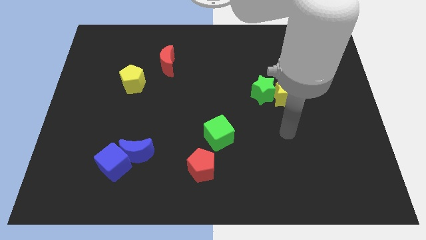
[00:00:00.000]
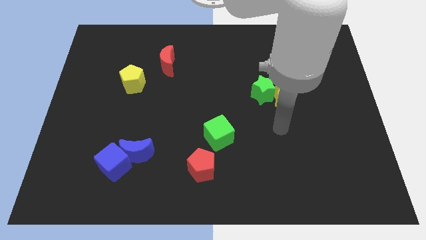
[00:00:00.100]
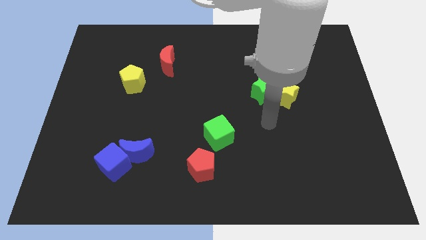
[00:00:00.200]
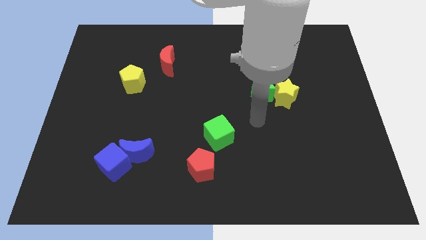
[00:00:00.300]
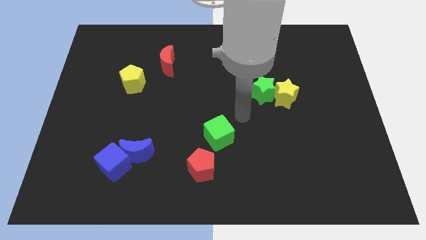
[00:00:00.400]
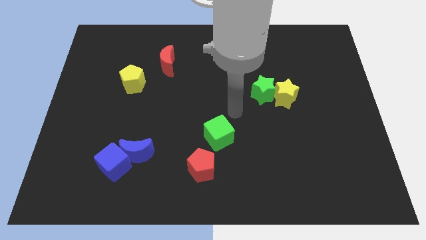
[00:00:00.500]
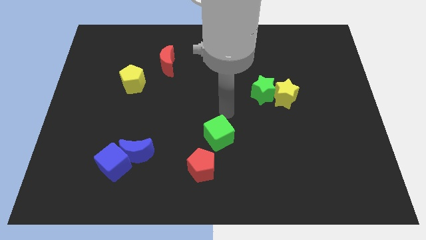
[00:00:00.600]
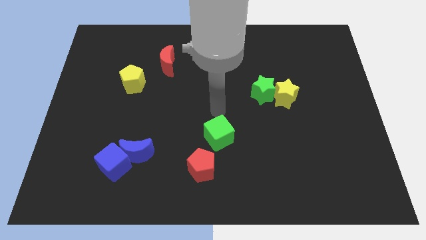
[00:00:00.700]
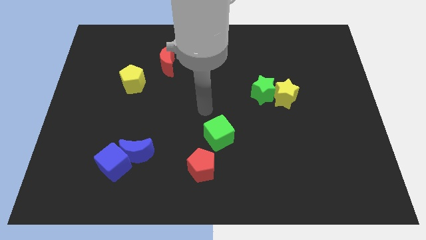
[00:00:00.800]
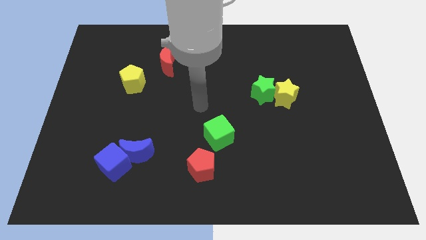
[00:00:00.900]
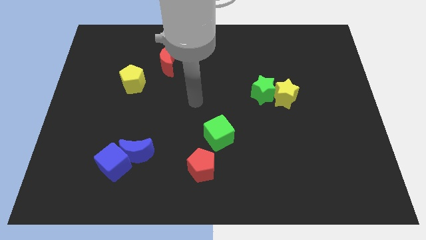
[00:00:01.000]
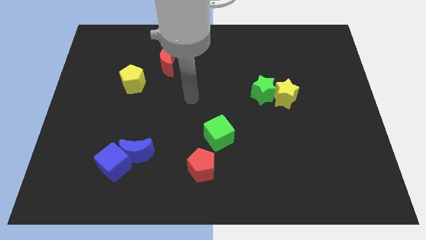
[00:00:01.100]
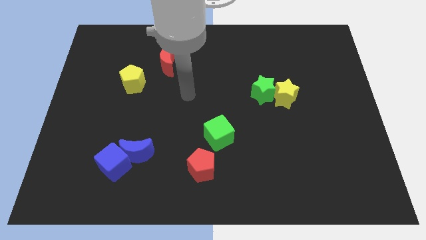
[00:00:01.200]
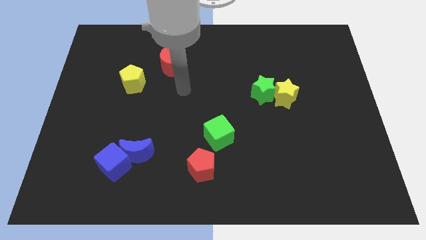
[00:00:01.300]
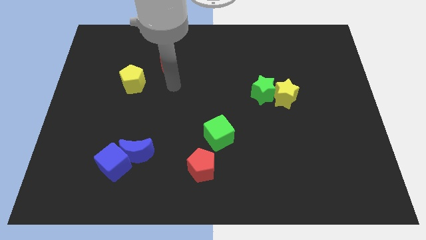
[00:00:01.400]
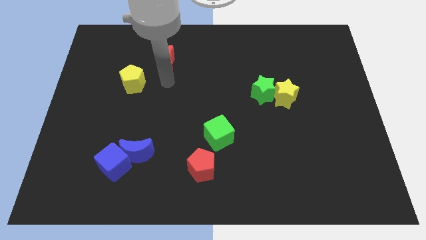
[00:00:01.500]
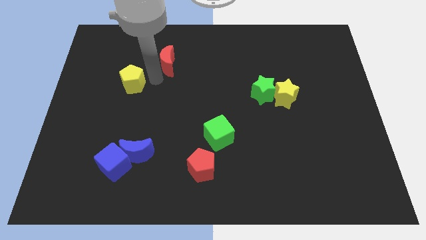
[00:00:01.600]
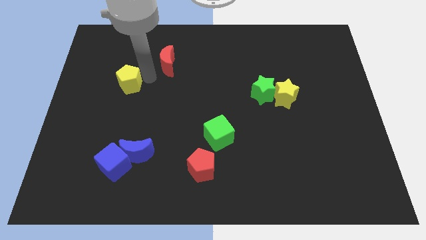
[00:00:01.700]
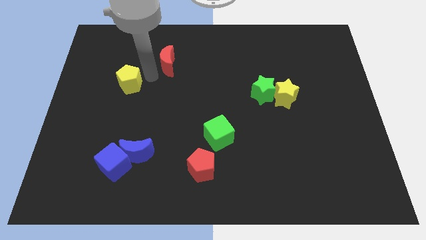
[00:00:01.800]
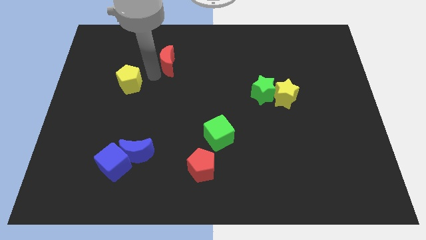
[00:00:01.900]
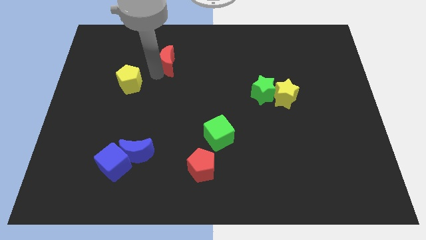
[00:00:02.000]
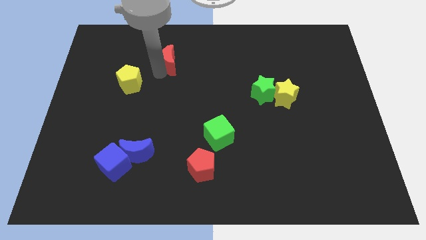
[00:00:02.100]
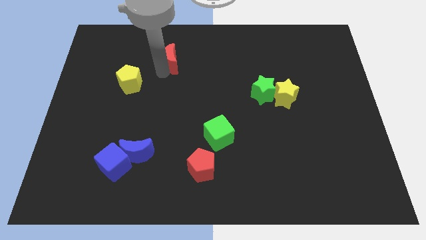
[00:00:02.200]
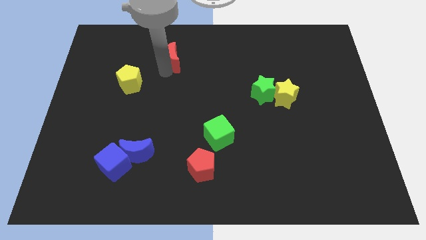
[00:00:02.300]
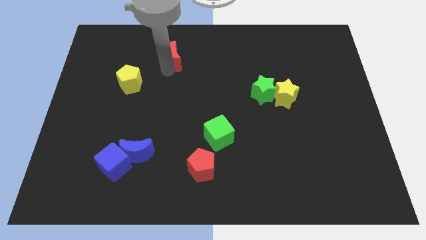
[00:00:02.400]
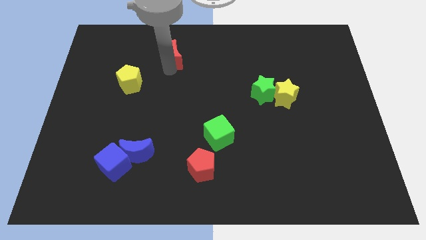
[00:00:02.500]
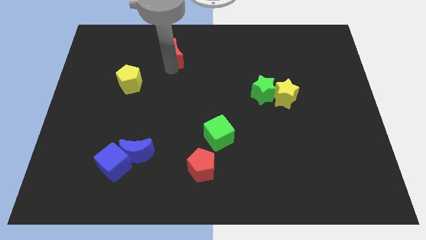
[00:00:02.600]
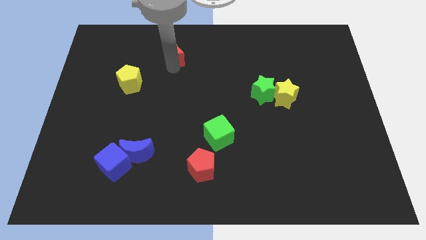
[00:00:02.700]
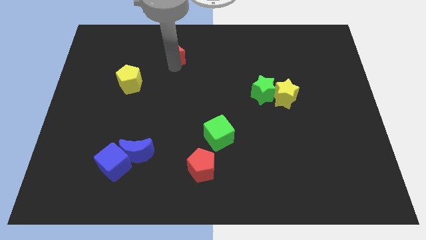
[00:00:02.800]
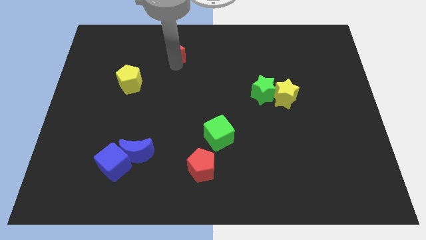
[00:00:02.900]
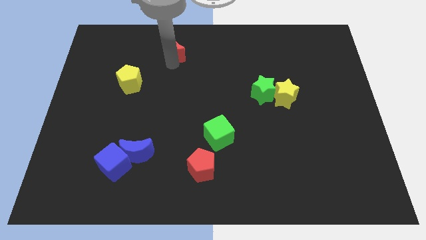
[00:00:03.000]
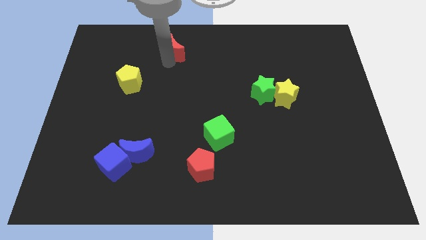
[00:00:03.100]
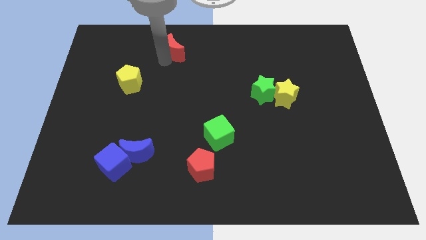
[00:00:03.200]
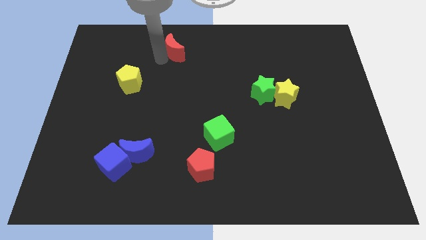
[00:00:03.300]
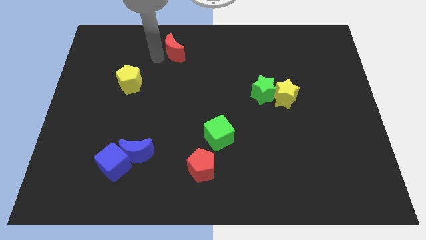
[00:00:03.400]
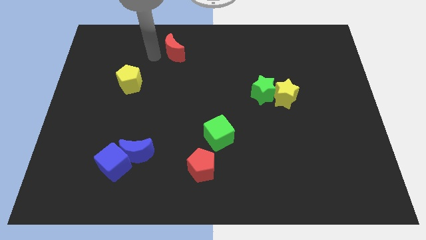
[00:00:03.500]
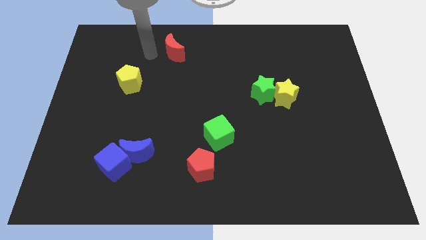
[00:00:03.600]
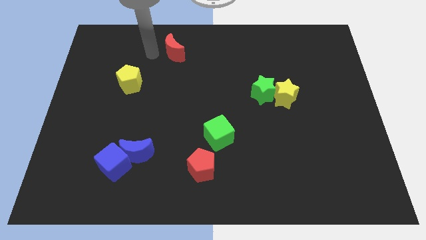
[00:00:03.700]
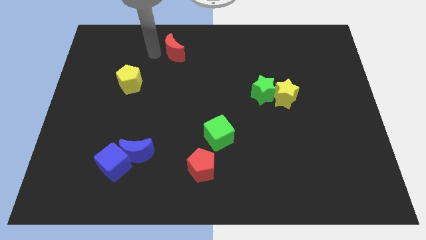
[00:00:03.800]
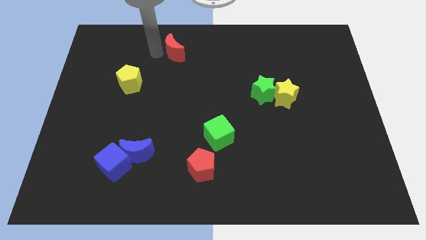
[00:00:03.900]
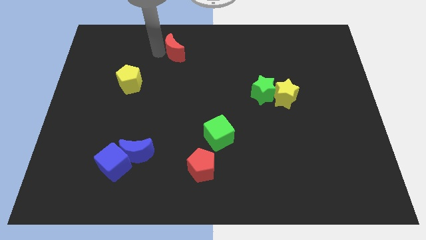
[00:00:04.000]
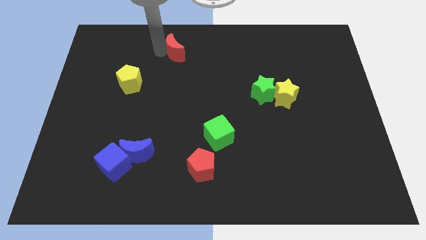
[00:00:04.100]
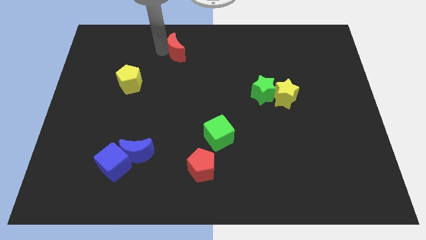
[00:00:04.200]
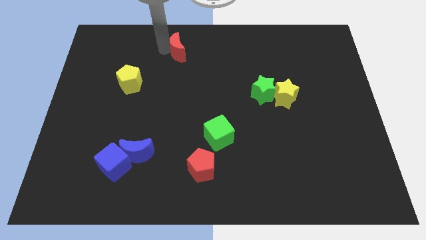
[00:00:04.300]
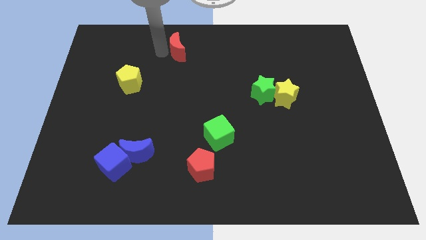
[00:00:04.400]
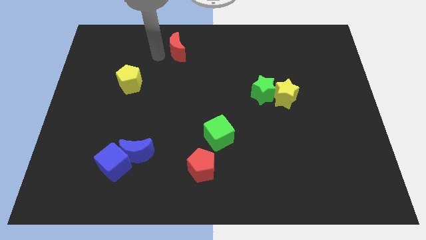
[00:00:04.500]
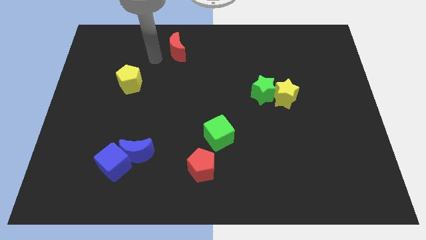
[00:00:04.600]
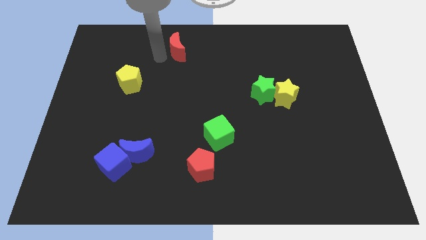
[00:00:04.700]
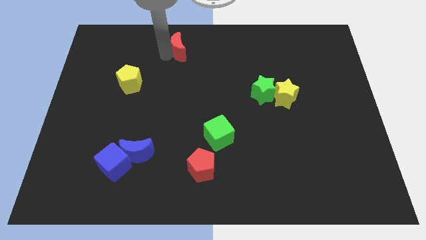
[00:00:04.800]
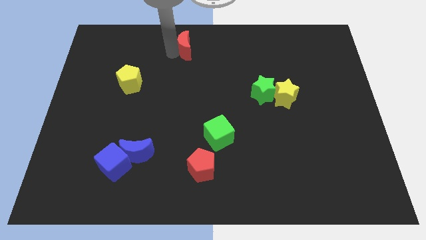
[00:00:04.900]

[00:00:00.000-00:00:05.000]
slide the red moon to the top

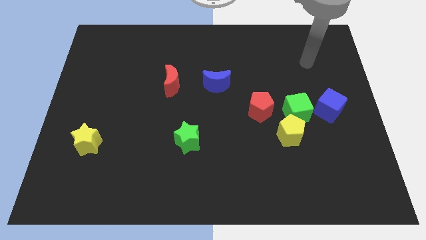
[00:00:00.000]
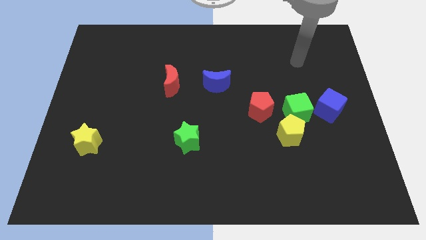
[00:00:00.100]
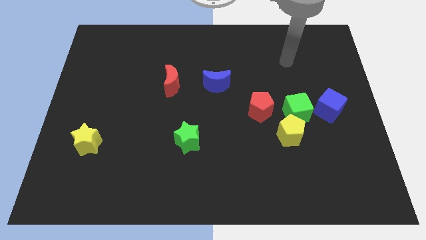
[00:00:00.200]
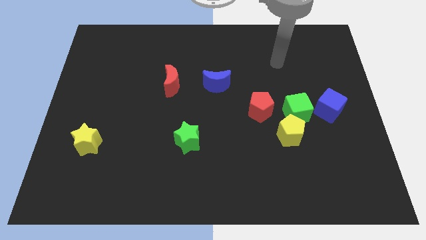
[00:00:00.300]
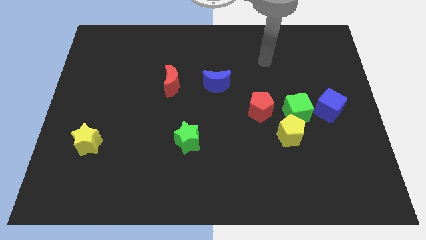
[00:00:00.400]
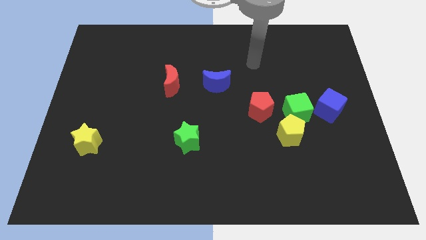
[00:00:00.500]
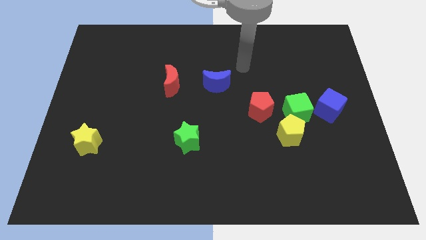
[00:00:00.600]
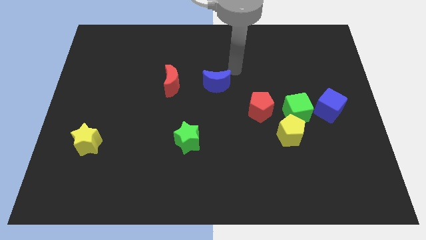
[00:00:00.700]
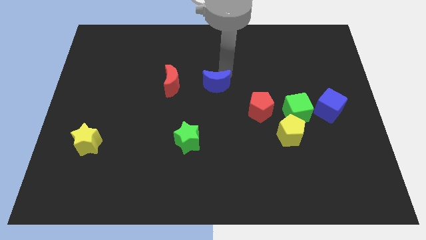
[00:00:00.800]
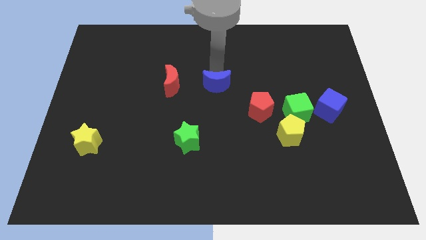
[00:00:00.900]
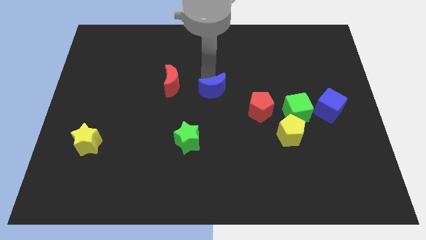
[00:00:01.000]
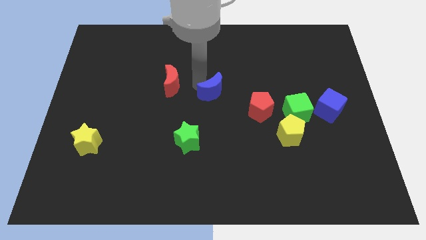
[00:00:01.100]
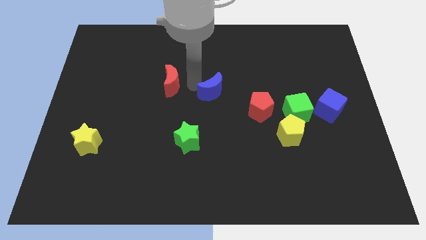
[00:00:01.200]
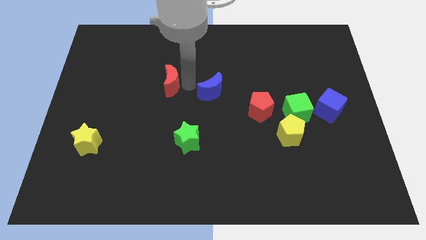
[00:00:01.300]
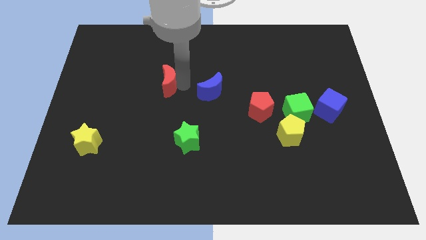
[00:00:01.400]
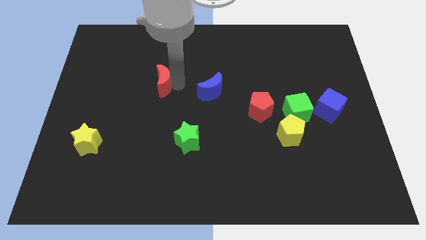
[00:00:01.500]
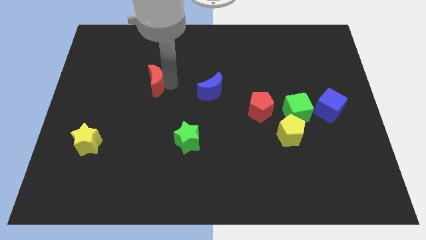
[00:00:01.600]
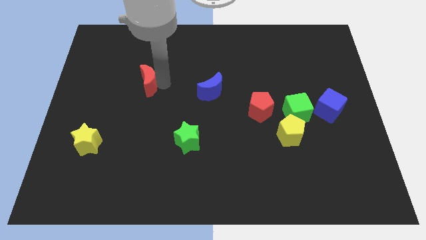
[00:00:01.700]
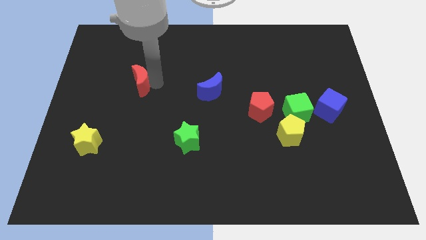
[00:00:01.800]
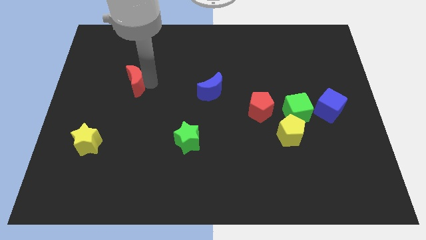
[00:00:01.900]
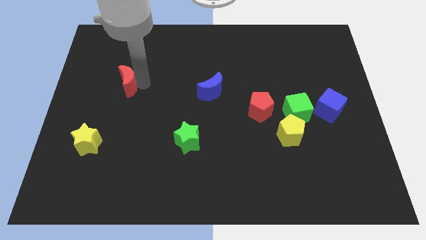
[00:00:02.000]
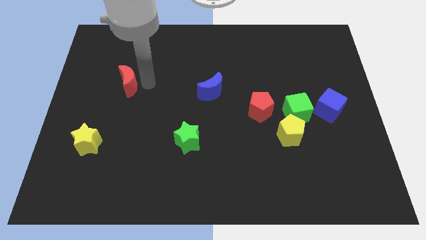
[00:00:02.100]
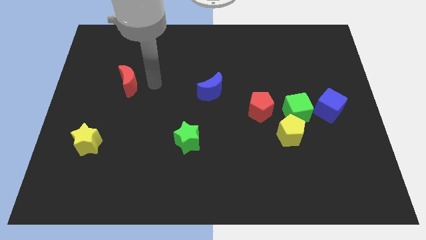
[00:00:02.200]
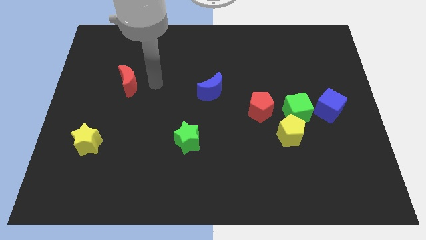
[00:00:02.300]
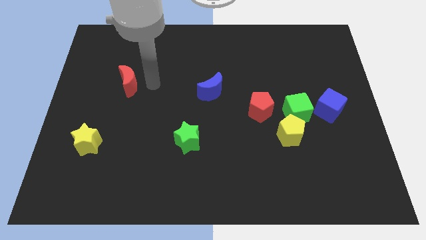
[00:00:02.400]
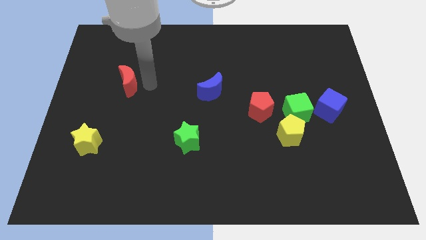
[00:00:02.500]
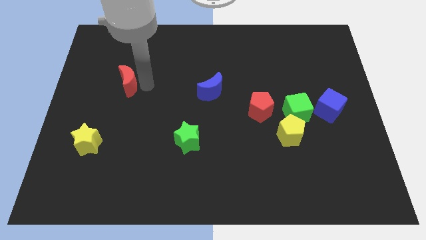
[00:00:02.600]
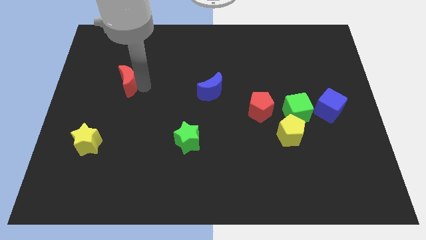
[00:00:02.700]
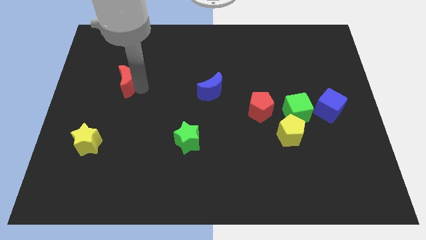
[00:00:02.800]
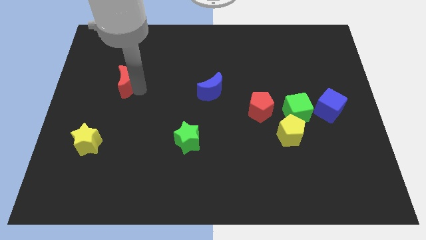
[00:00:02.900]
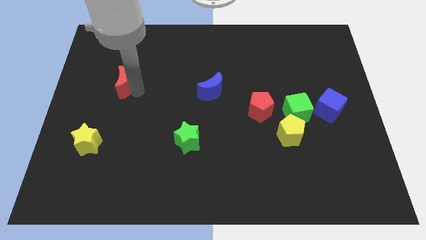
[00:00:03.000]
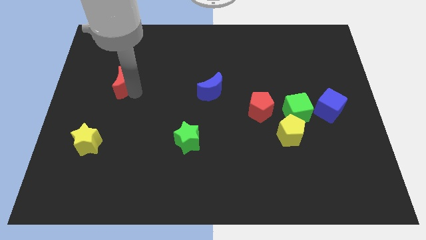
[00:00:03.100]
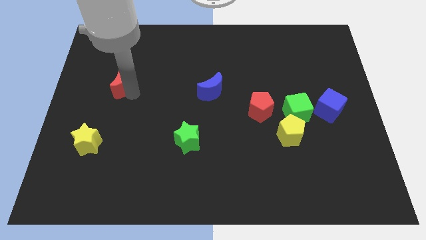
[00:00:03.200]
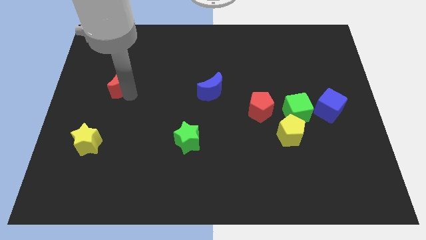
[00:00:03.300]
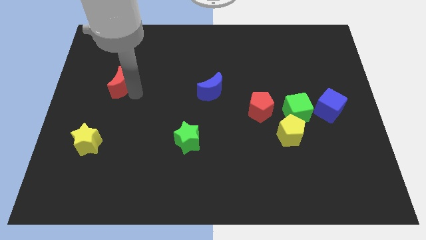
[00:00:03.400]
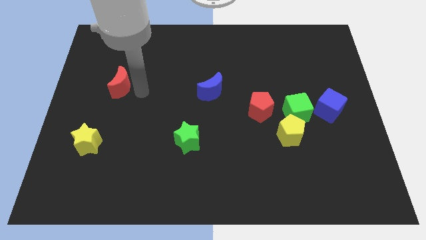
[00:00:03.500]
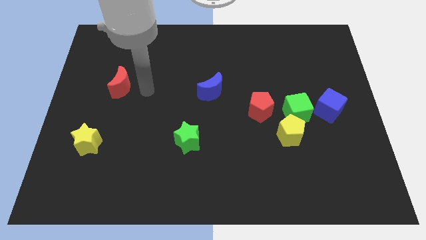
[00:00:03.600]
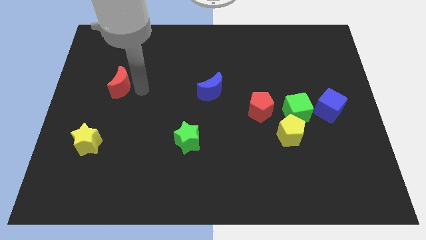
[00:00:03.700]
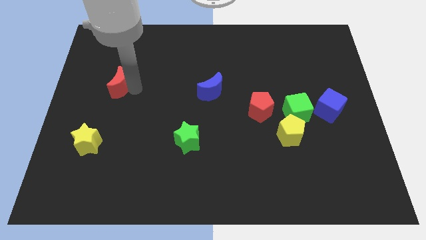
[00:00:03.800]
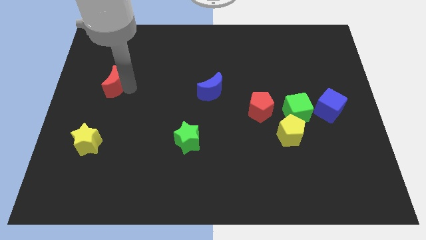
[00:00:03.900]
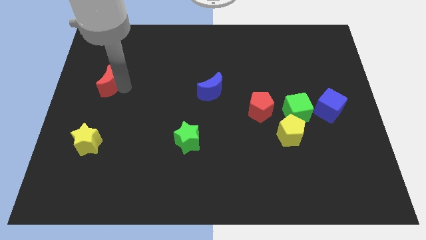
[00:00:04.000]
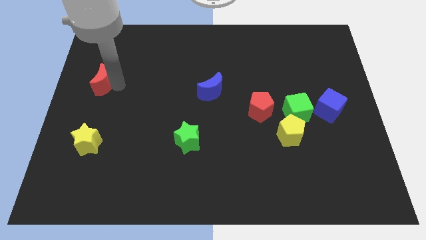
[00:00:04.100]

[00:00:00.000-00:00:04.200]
push the red moon to the left side of the board
